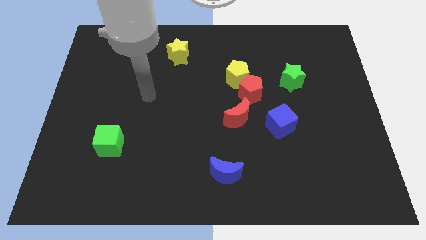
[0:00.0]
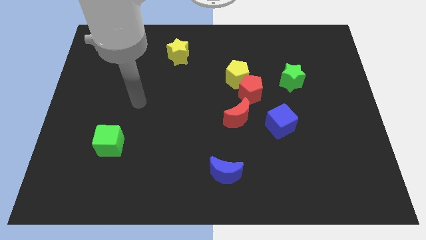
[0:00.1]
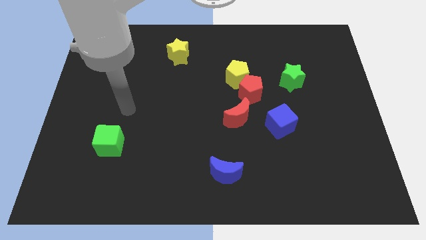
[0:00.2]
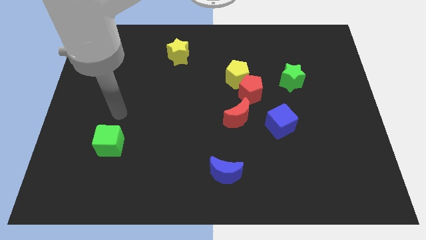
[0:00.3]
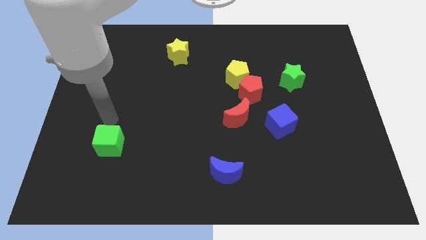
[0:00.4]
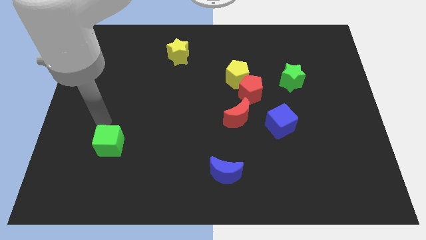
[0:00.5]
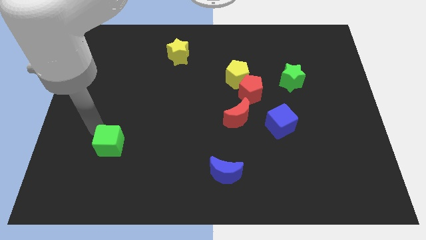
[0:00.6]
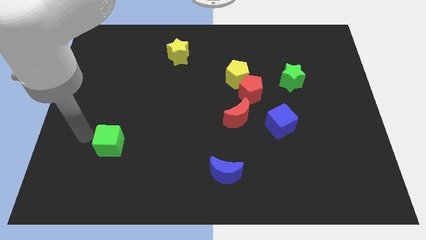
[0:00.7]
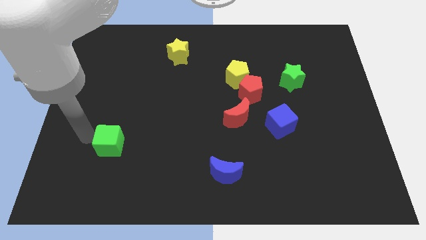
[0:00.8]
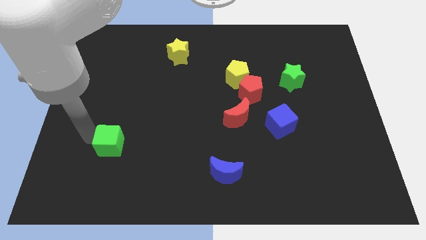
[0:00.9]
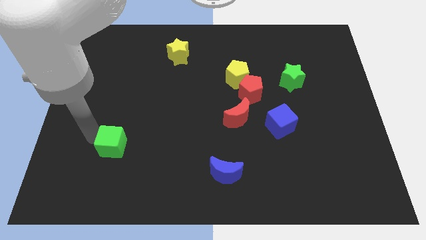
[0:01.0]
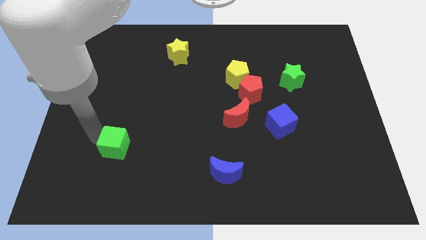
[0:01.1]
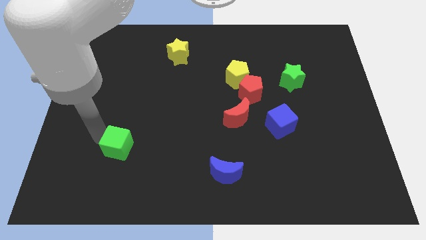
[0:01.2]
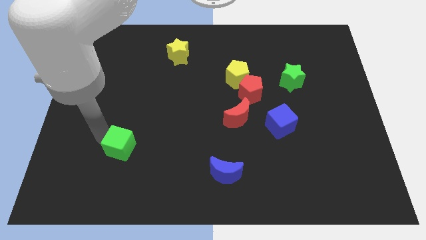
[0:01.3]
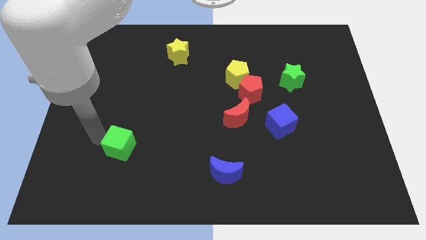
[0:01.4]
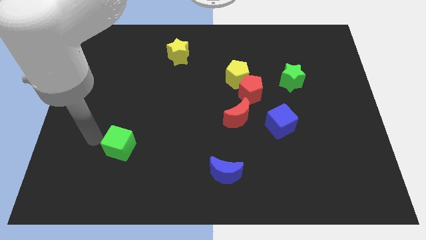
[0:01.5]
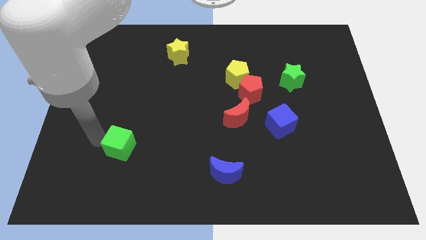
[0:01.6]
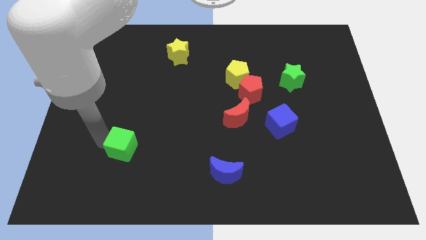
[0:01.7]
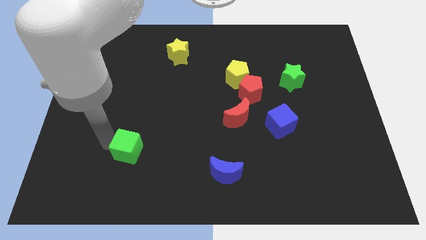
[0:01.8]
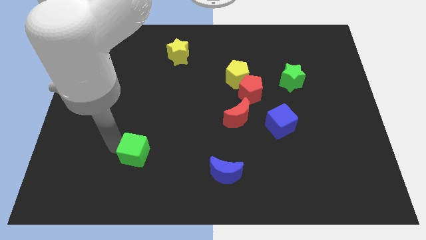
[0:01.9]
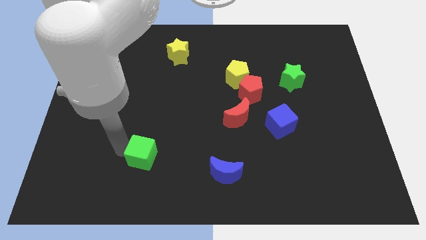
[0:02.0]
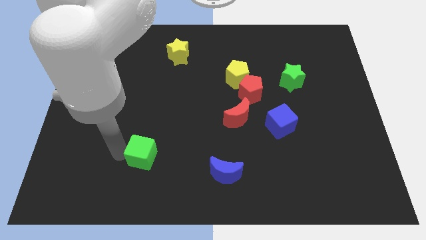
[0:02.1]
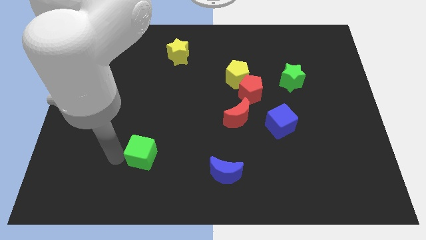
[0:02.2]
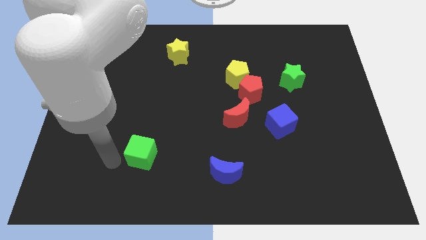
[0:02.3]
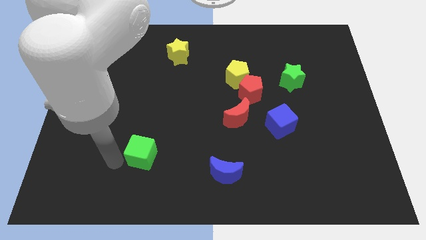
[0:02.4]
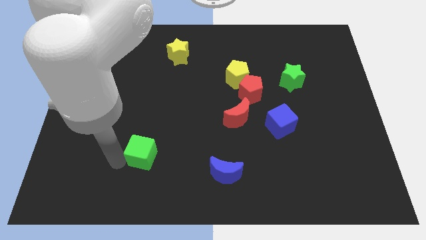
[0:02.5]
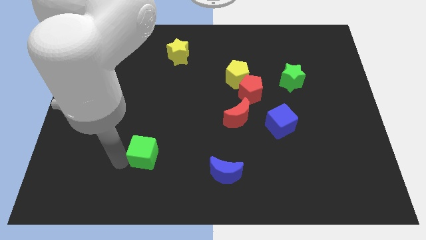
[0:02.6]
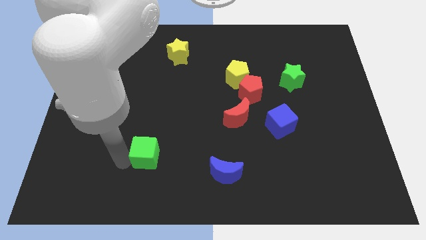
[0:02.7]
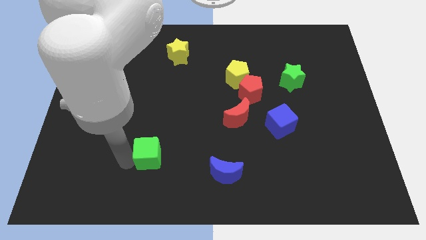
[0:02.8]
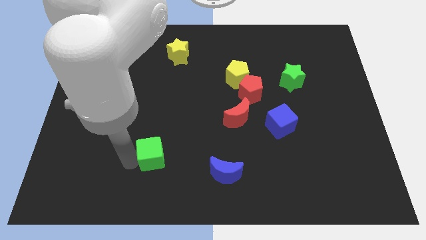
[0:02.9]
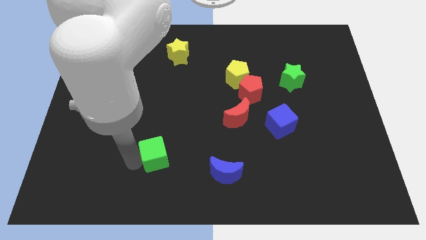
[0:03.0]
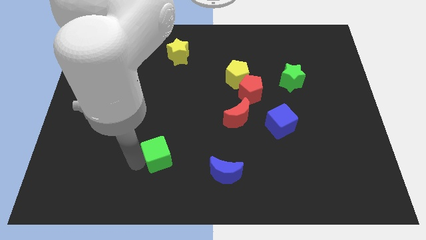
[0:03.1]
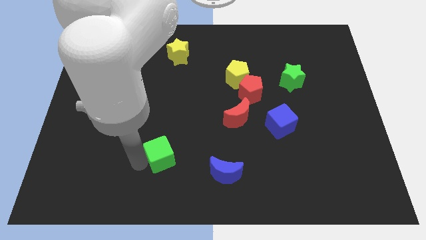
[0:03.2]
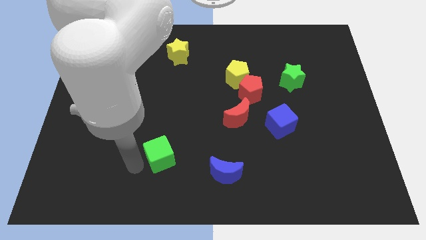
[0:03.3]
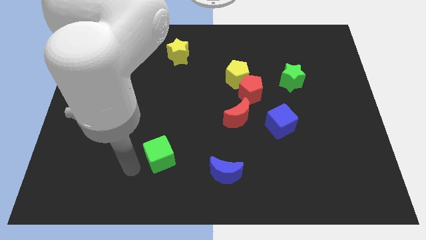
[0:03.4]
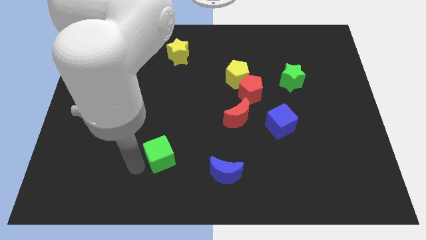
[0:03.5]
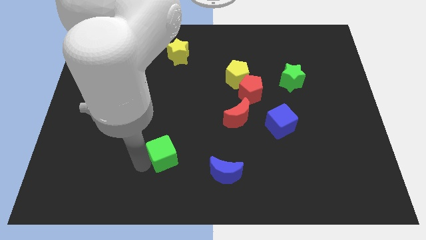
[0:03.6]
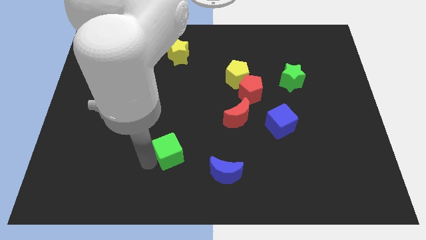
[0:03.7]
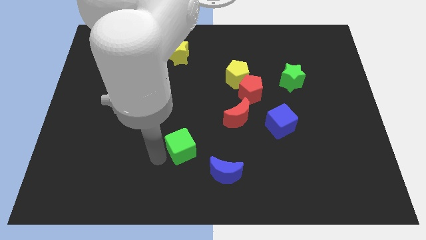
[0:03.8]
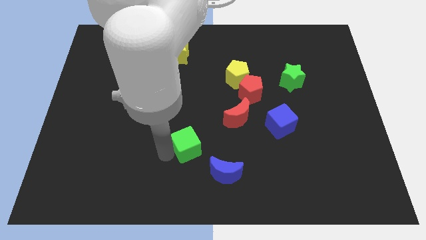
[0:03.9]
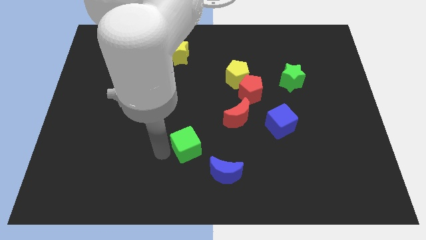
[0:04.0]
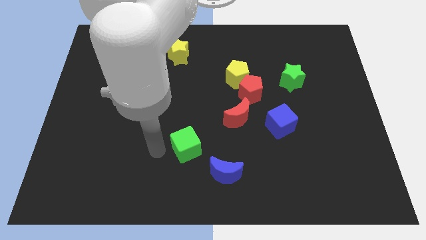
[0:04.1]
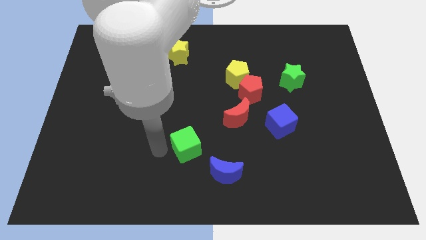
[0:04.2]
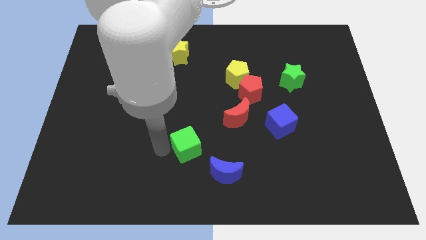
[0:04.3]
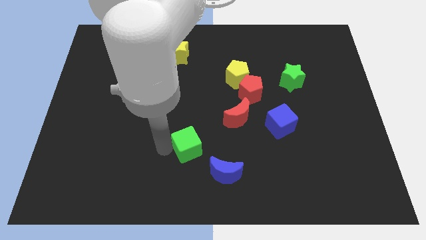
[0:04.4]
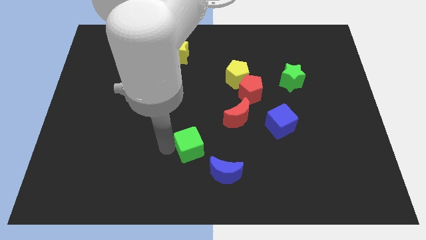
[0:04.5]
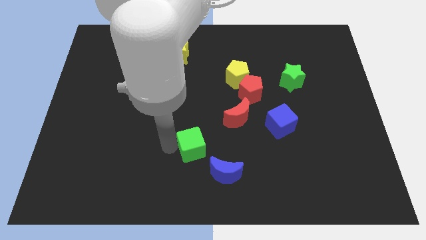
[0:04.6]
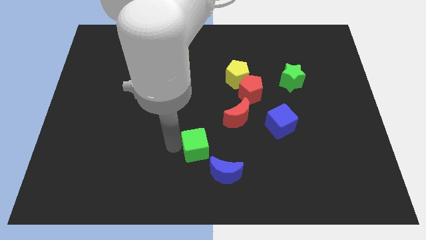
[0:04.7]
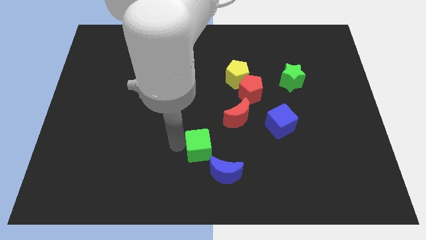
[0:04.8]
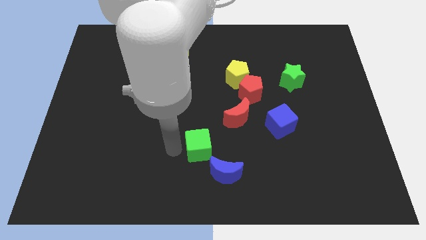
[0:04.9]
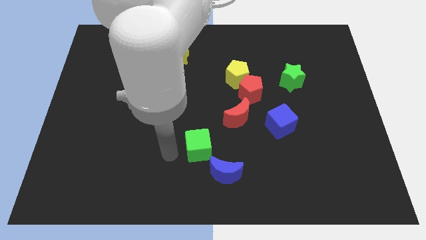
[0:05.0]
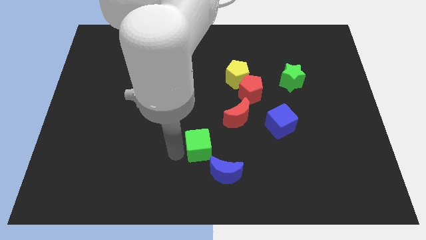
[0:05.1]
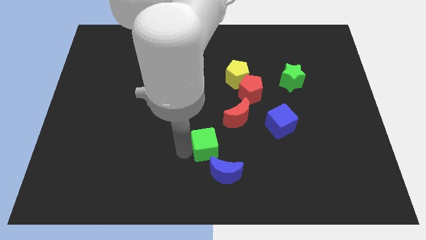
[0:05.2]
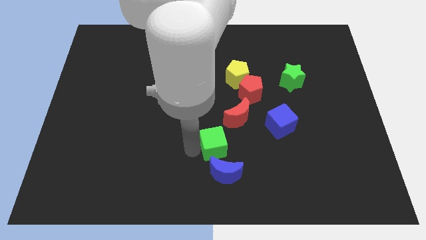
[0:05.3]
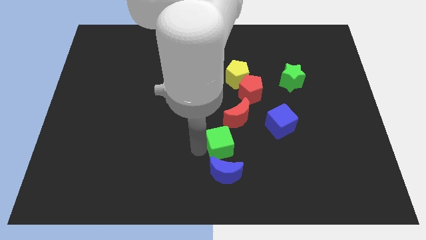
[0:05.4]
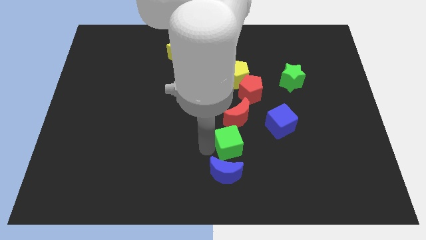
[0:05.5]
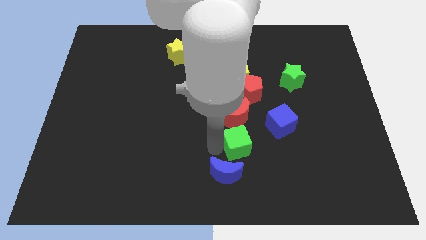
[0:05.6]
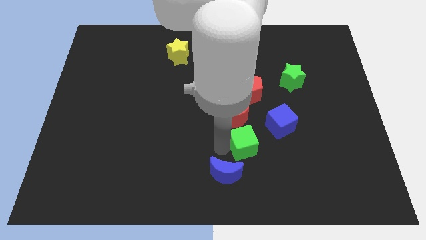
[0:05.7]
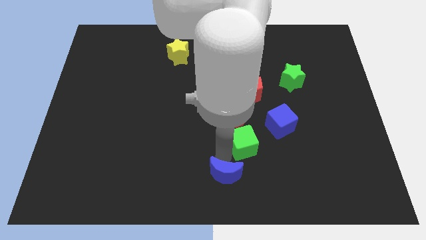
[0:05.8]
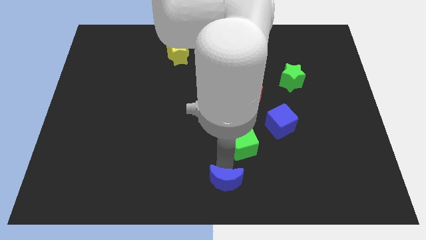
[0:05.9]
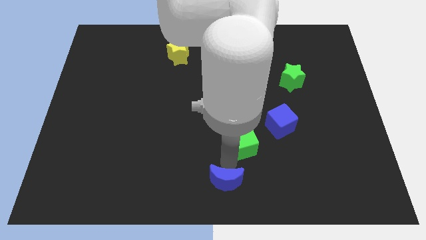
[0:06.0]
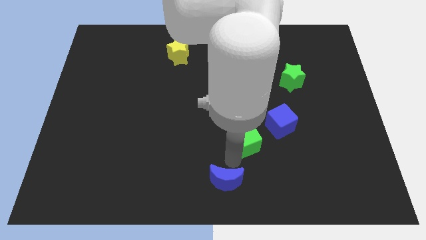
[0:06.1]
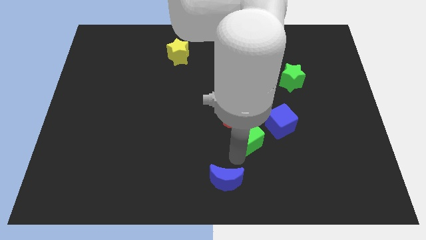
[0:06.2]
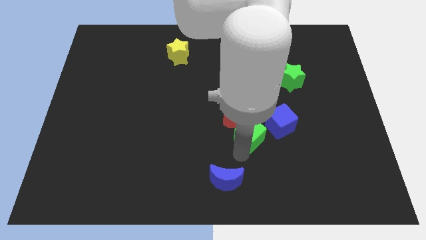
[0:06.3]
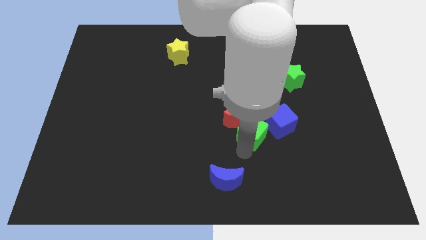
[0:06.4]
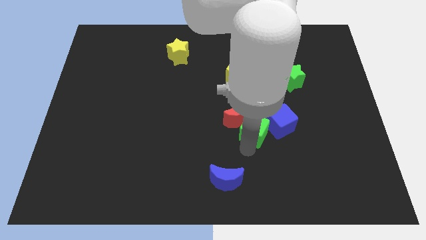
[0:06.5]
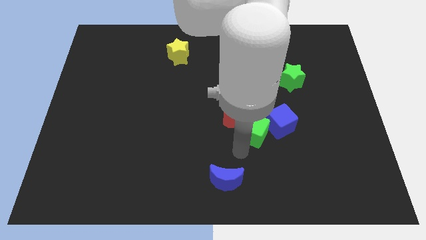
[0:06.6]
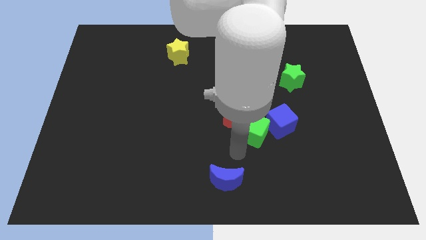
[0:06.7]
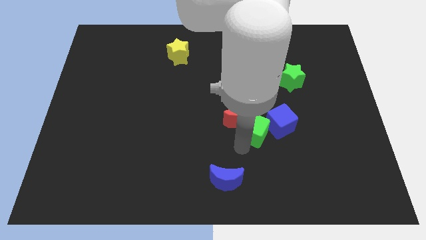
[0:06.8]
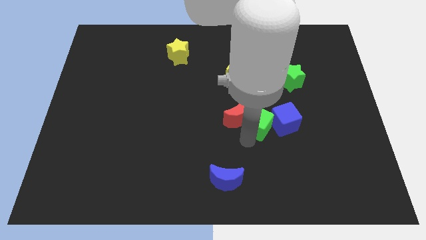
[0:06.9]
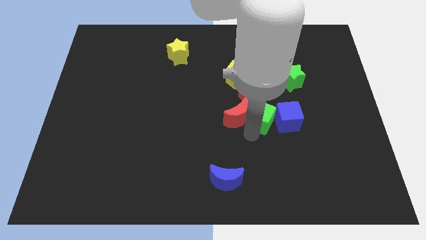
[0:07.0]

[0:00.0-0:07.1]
move the green cube to the bottom right side of the red pentagon

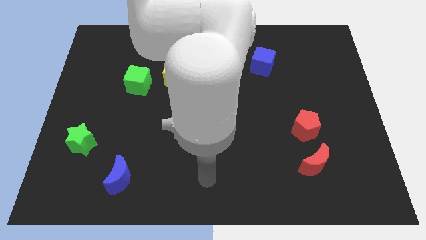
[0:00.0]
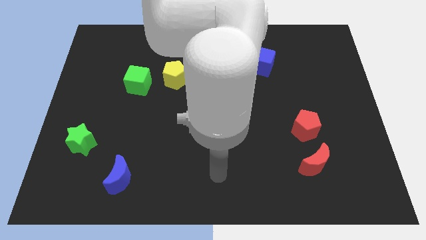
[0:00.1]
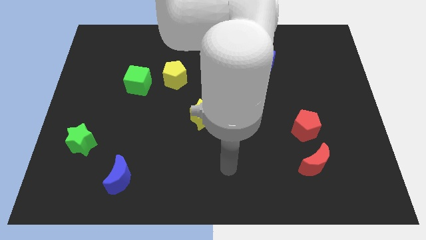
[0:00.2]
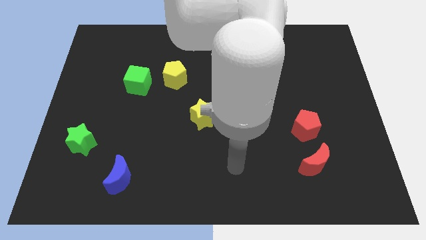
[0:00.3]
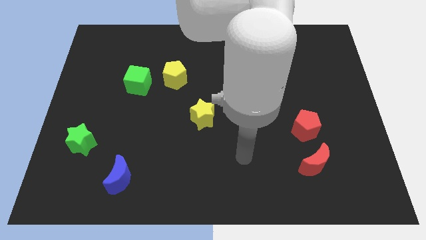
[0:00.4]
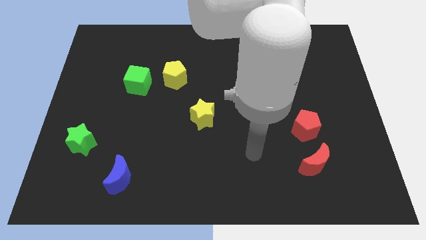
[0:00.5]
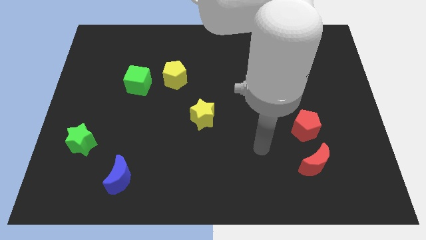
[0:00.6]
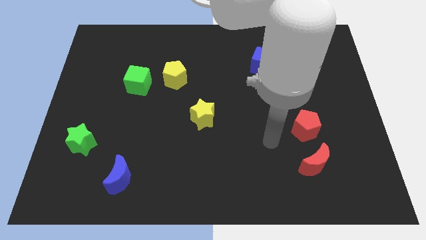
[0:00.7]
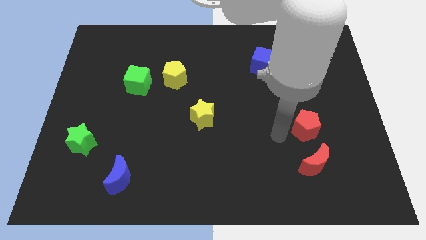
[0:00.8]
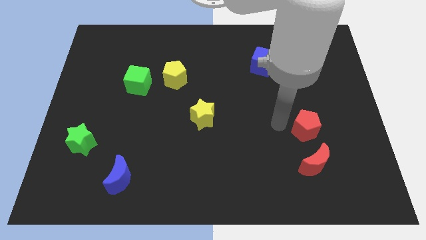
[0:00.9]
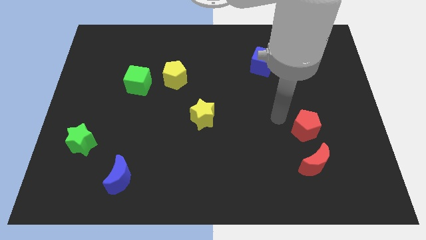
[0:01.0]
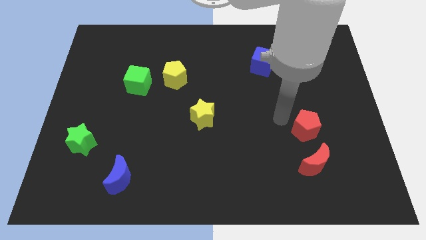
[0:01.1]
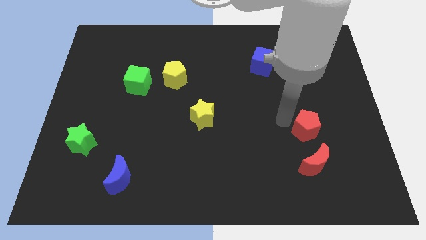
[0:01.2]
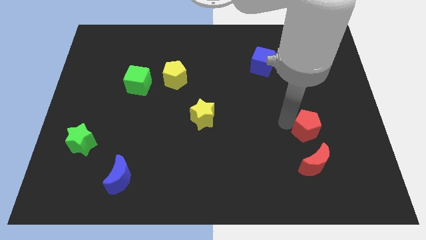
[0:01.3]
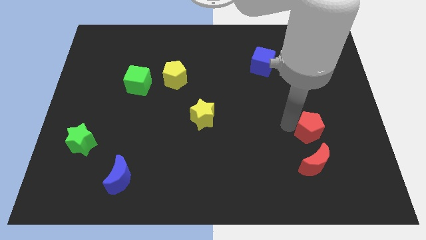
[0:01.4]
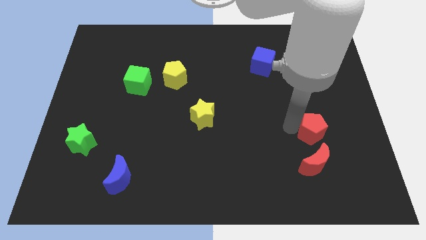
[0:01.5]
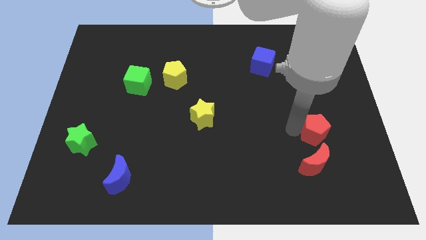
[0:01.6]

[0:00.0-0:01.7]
push the red pentagon diagonally up and to the right of the red moon
